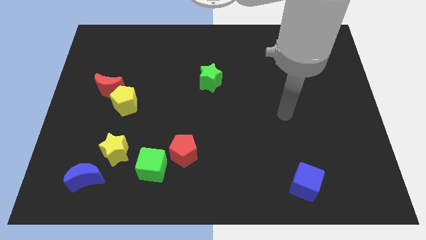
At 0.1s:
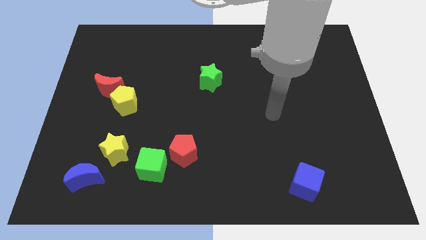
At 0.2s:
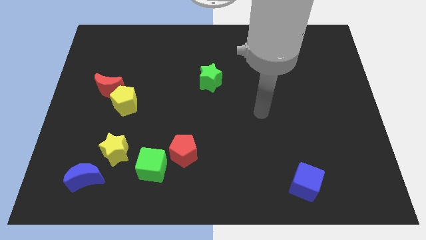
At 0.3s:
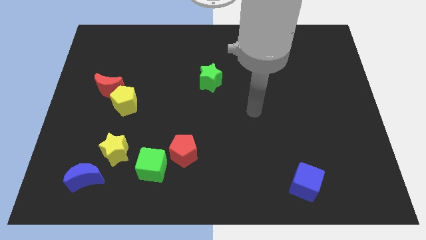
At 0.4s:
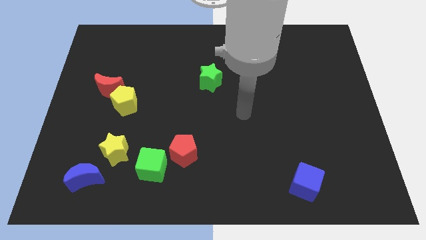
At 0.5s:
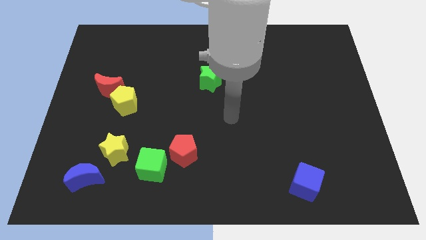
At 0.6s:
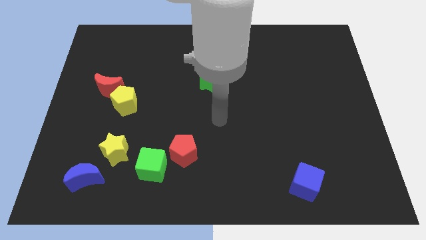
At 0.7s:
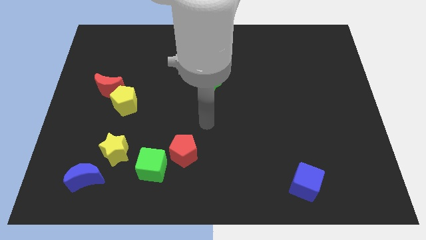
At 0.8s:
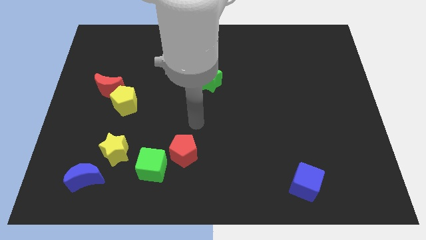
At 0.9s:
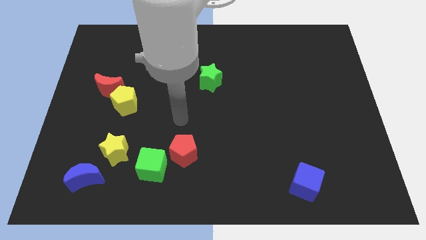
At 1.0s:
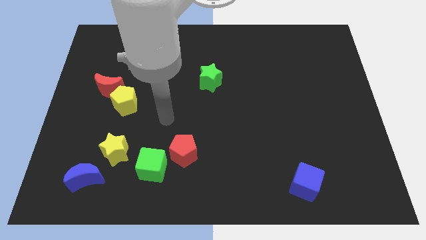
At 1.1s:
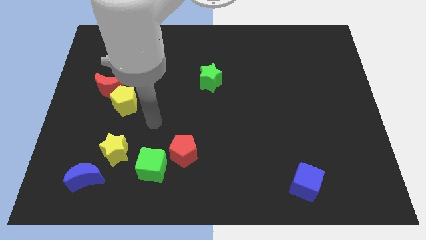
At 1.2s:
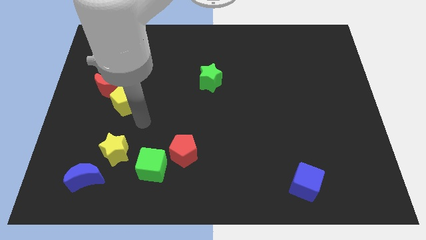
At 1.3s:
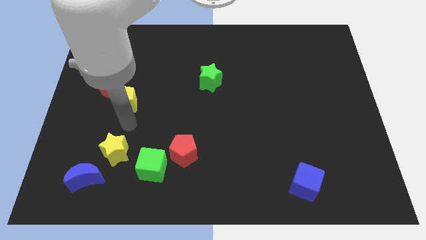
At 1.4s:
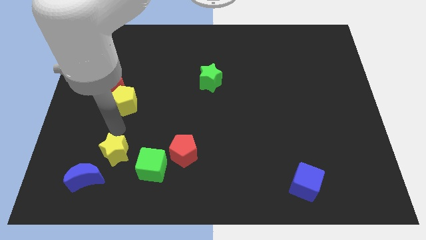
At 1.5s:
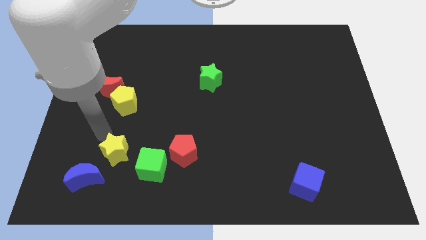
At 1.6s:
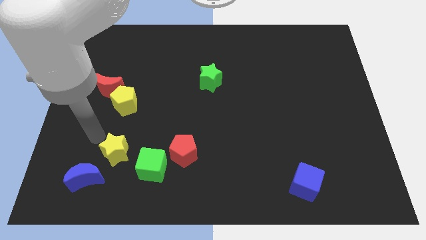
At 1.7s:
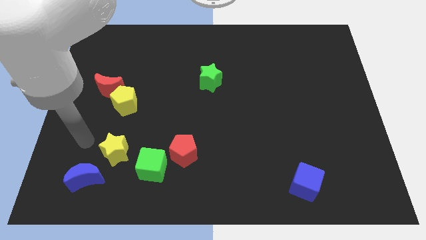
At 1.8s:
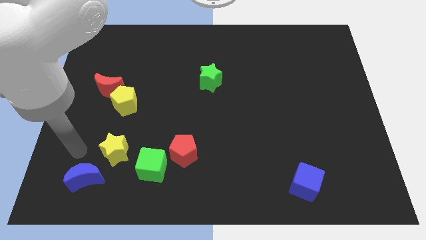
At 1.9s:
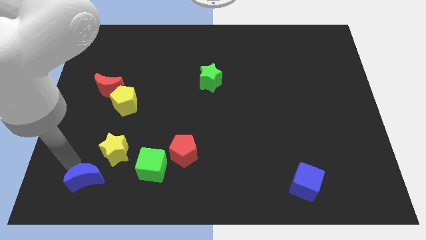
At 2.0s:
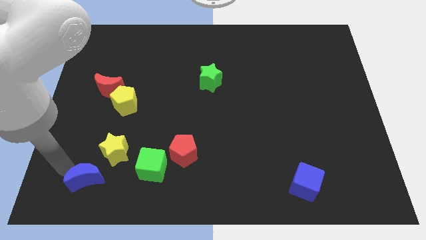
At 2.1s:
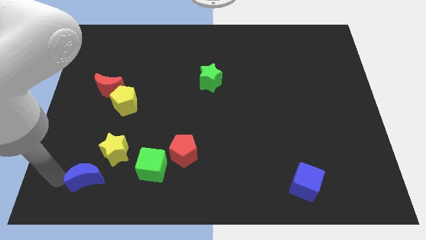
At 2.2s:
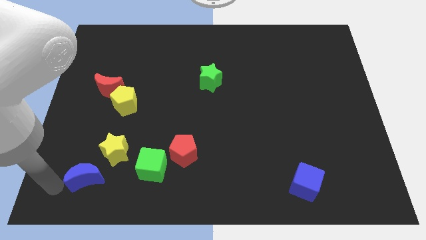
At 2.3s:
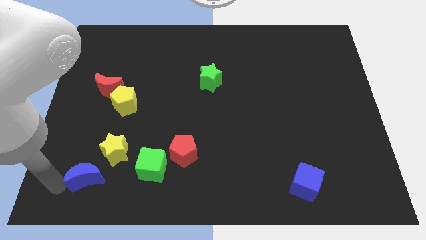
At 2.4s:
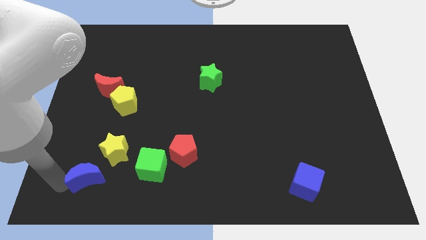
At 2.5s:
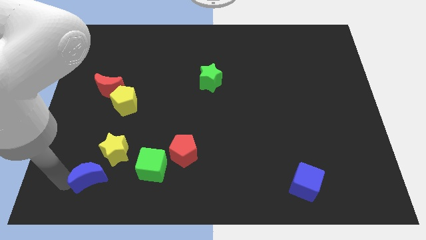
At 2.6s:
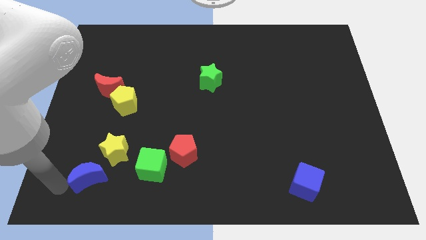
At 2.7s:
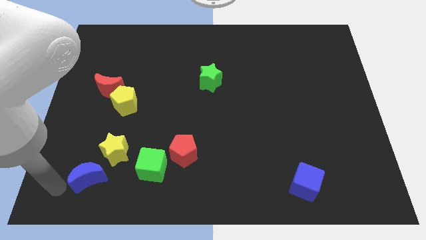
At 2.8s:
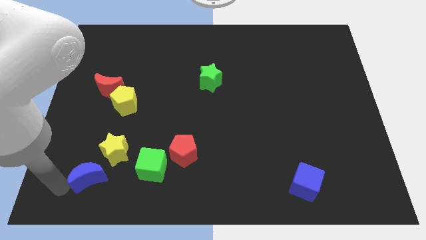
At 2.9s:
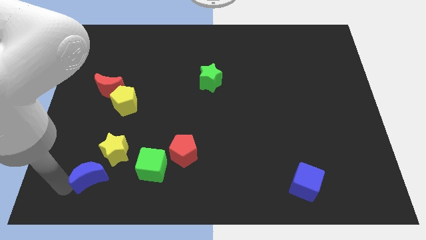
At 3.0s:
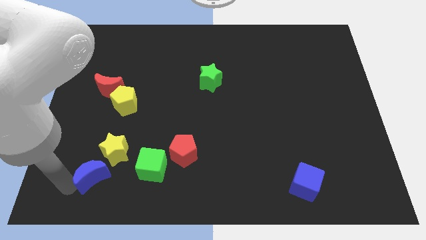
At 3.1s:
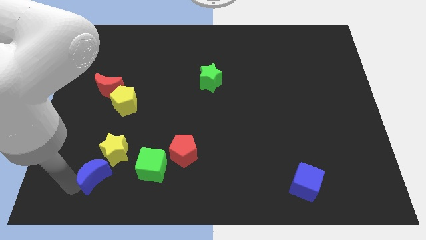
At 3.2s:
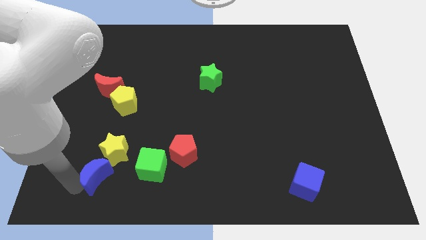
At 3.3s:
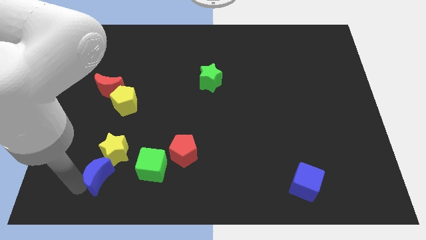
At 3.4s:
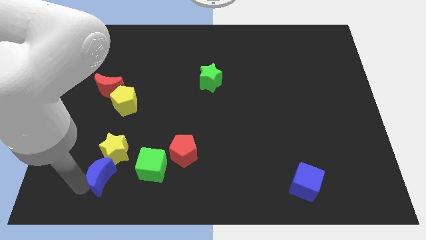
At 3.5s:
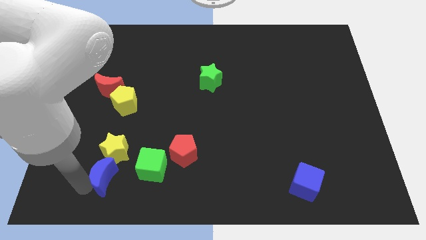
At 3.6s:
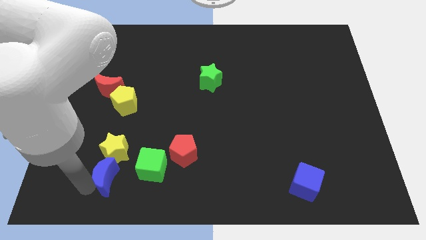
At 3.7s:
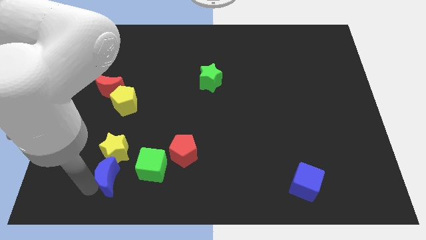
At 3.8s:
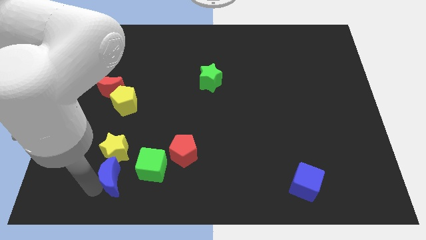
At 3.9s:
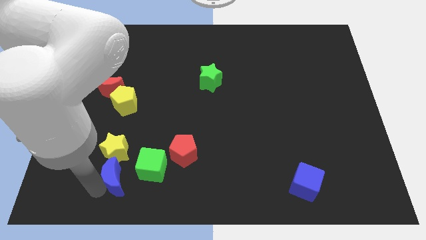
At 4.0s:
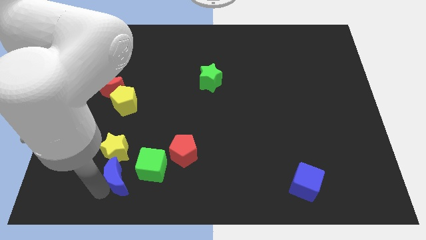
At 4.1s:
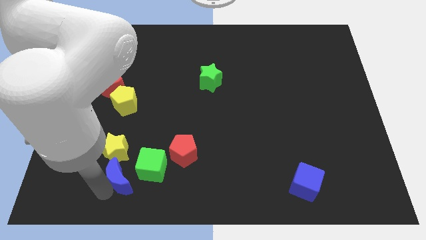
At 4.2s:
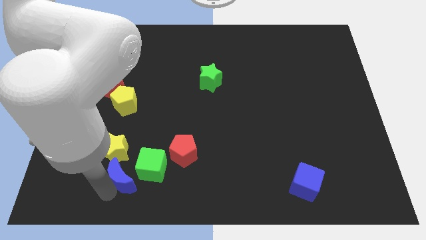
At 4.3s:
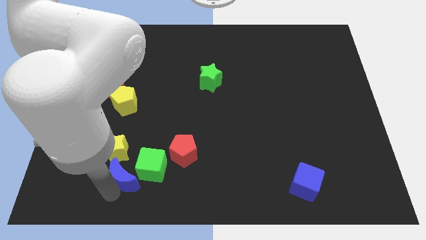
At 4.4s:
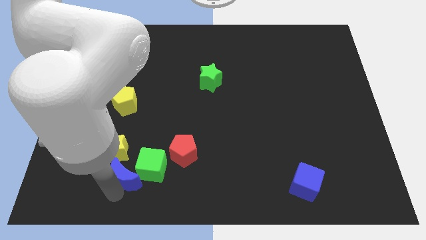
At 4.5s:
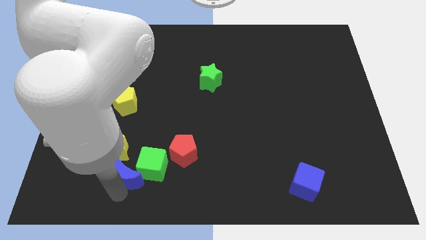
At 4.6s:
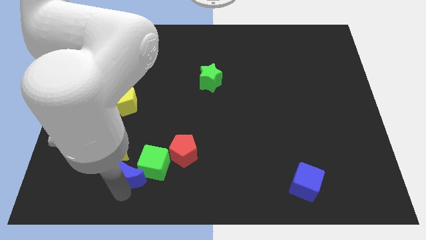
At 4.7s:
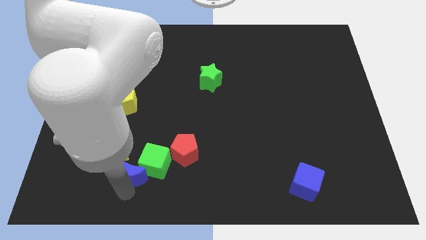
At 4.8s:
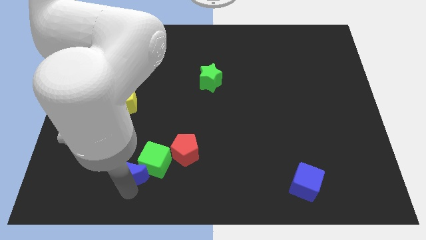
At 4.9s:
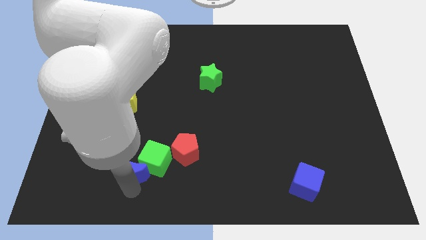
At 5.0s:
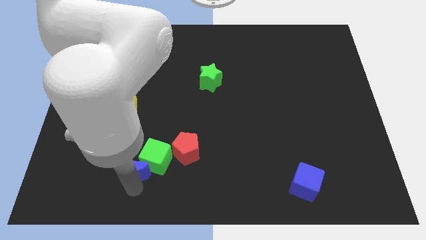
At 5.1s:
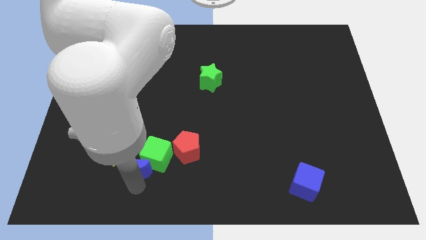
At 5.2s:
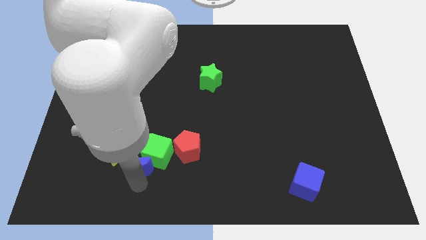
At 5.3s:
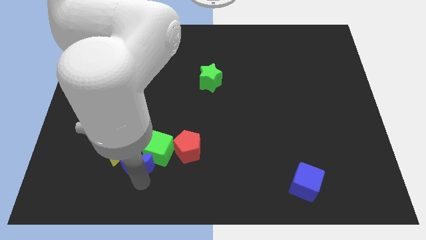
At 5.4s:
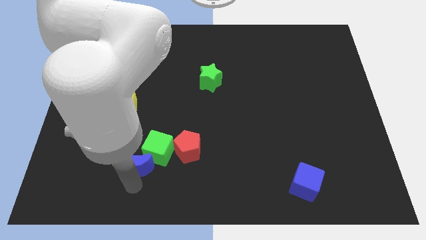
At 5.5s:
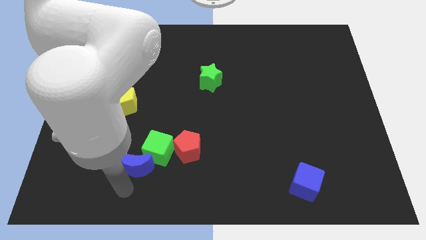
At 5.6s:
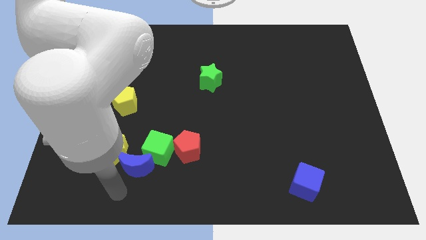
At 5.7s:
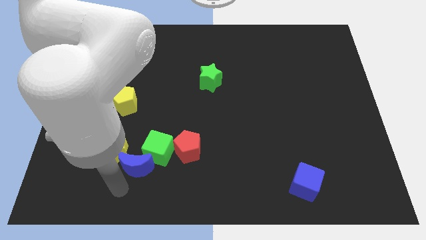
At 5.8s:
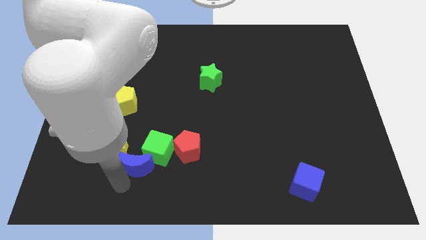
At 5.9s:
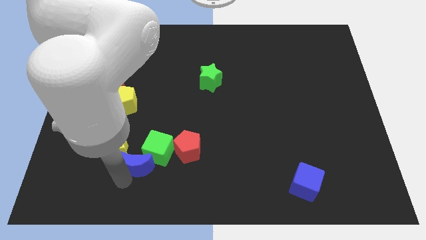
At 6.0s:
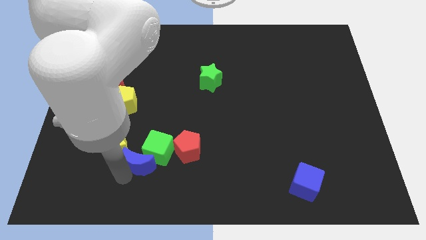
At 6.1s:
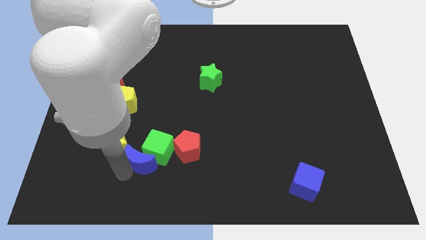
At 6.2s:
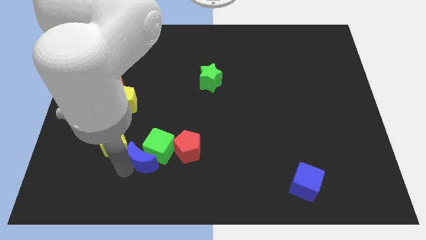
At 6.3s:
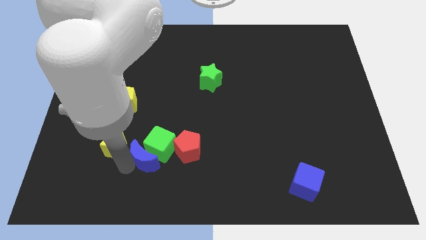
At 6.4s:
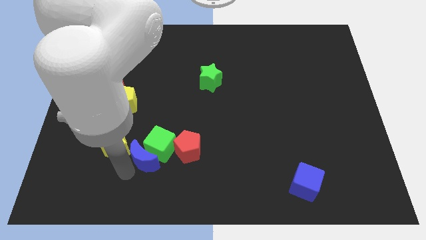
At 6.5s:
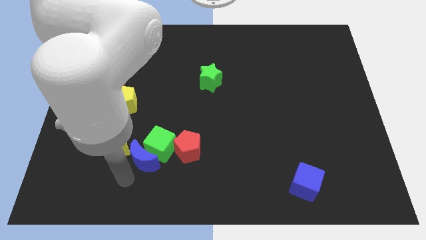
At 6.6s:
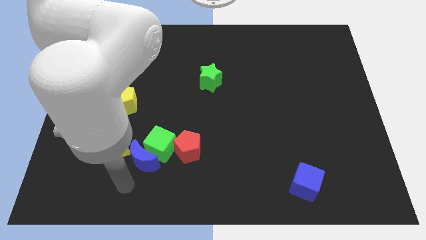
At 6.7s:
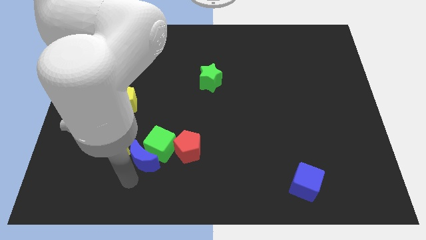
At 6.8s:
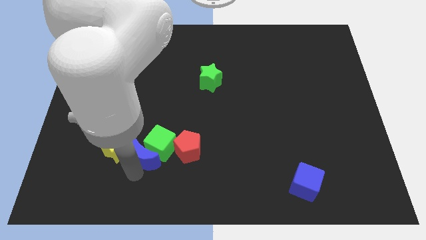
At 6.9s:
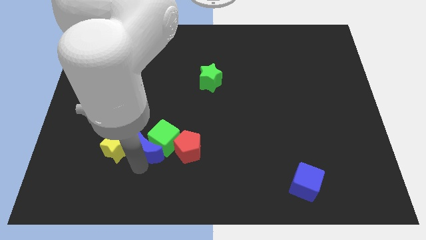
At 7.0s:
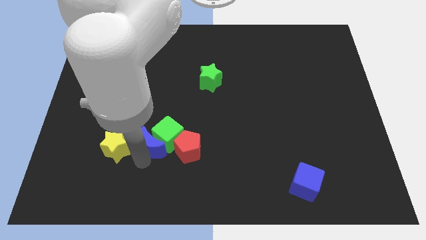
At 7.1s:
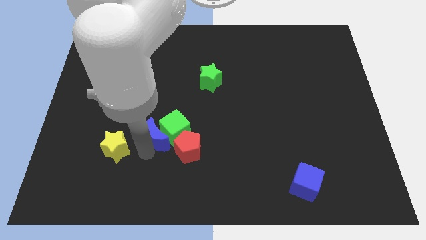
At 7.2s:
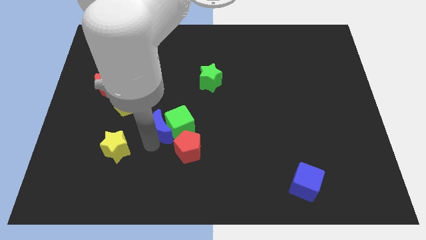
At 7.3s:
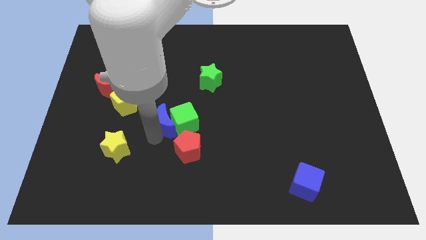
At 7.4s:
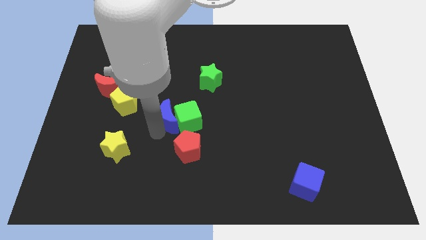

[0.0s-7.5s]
slide the blue moon to the middle
